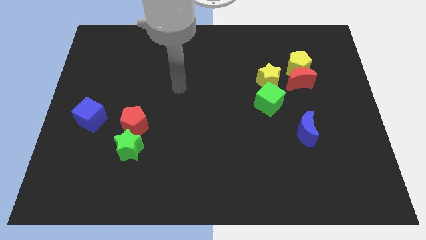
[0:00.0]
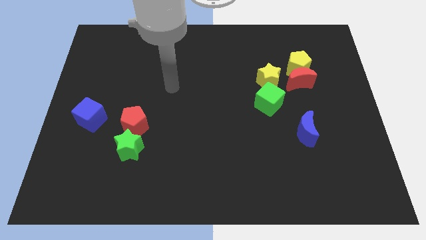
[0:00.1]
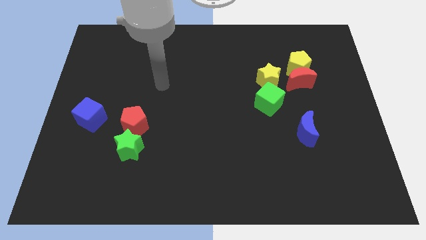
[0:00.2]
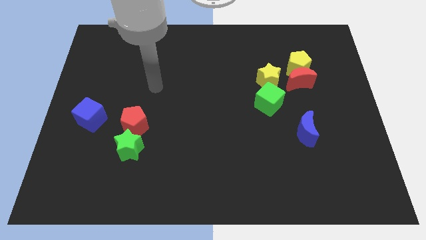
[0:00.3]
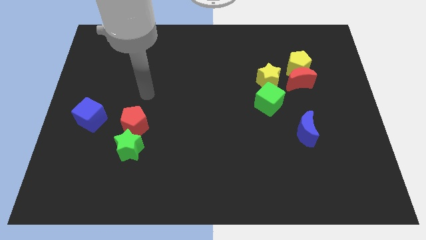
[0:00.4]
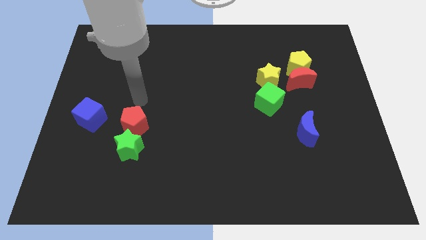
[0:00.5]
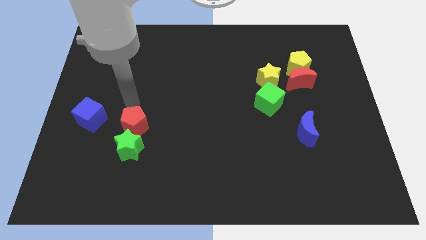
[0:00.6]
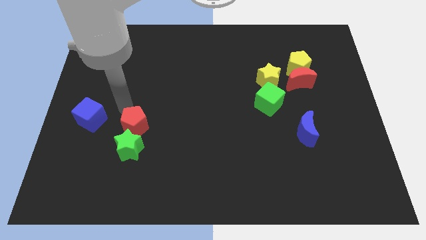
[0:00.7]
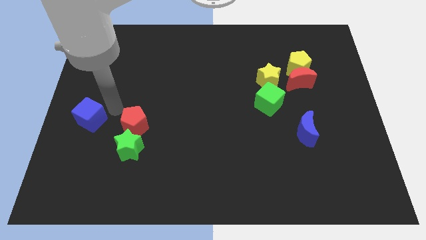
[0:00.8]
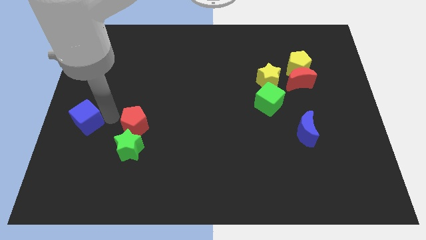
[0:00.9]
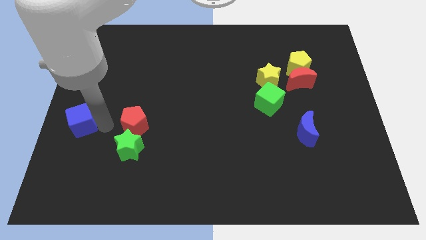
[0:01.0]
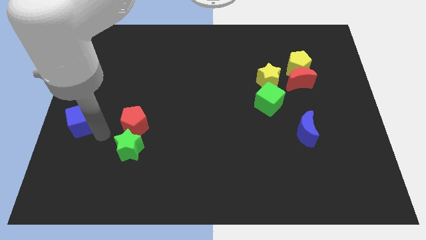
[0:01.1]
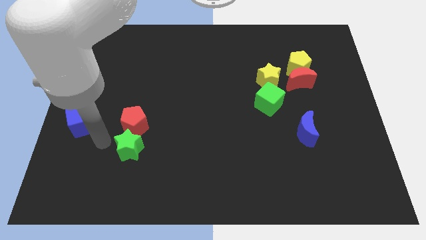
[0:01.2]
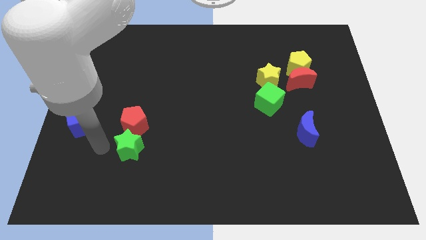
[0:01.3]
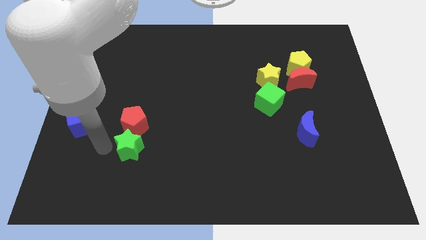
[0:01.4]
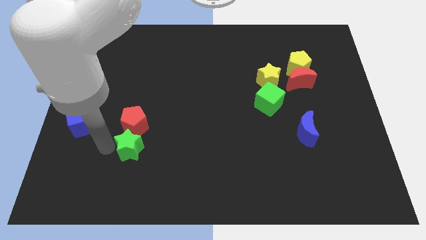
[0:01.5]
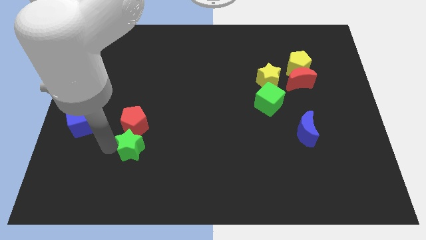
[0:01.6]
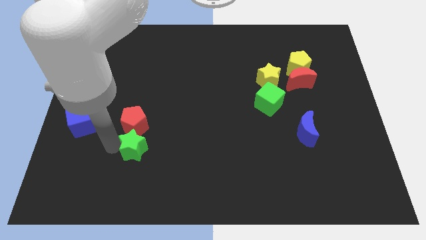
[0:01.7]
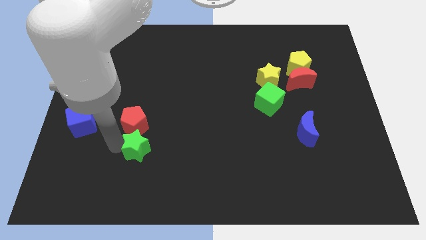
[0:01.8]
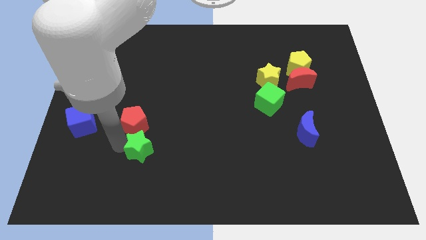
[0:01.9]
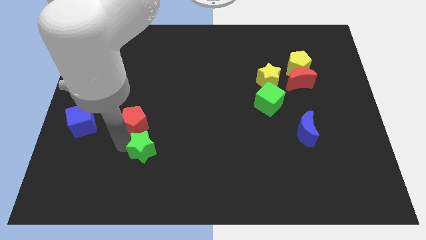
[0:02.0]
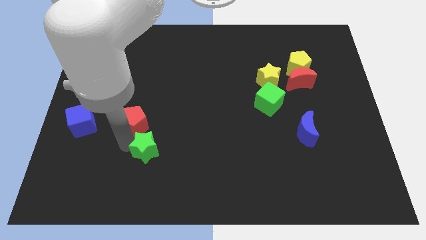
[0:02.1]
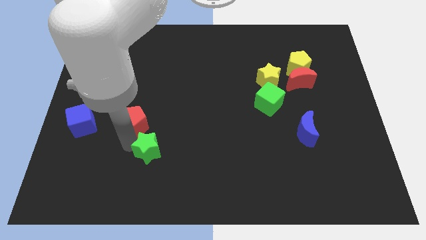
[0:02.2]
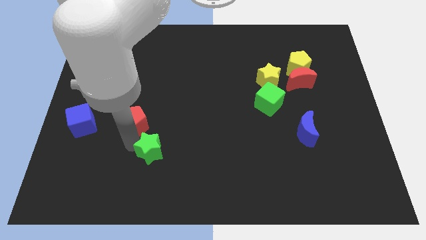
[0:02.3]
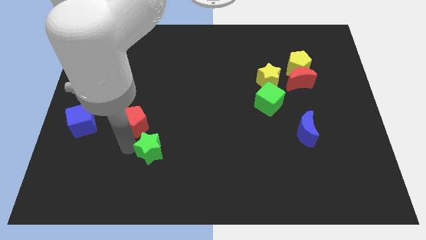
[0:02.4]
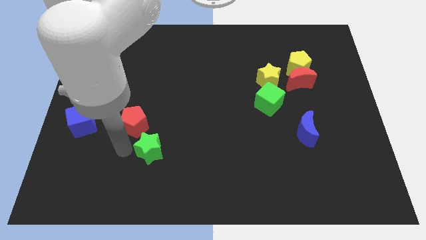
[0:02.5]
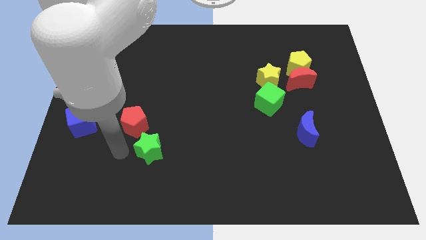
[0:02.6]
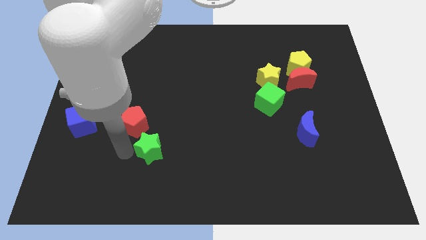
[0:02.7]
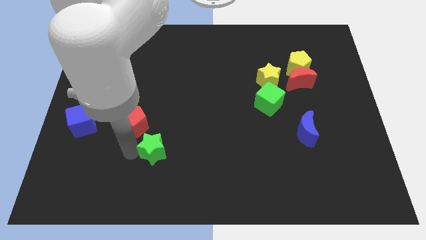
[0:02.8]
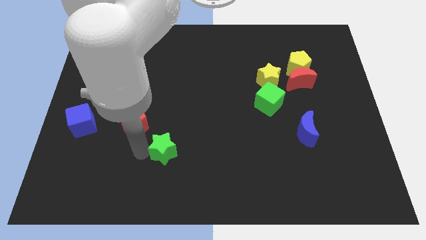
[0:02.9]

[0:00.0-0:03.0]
move the green star a little bit to the right

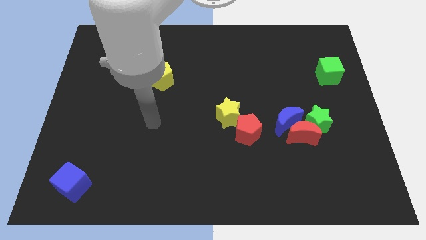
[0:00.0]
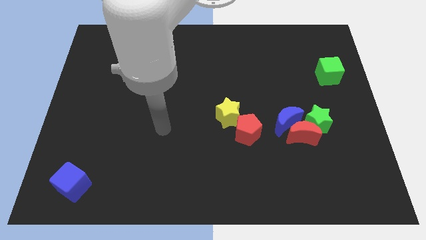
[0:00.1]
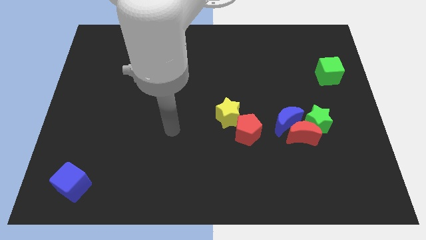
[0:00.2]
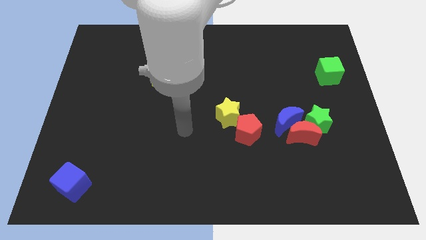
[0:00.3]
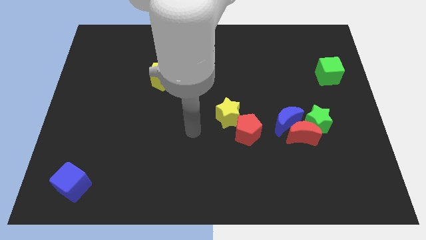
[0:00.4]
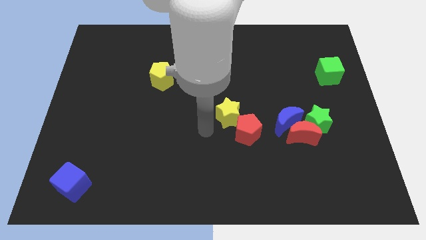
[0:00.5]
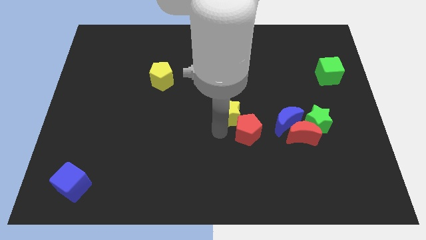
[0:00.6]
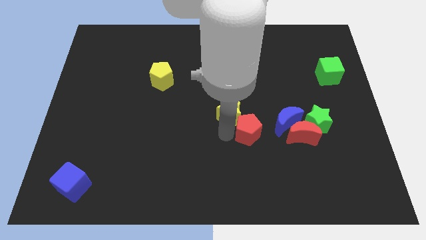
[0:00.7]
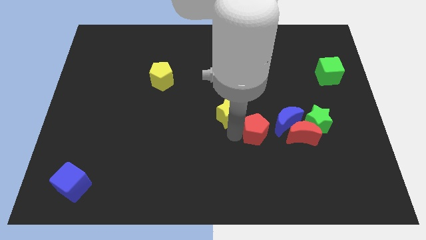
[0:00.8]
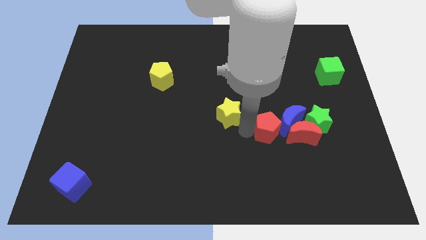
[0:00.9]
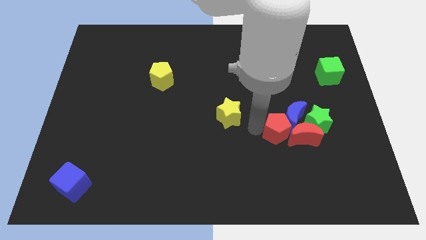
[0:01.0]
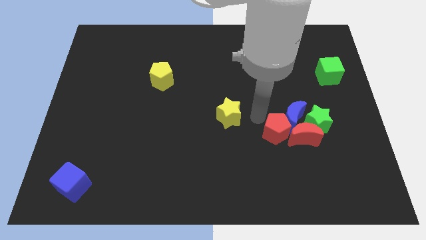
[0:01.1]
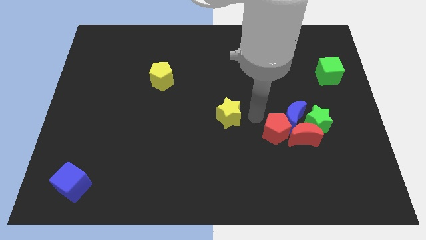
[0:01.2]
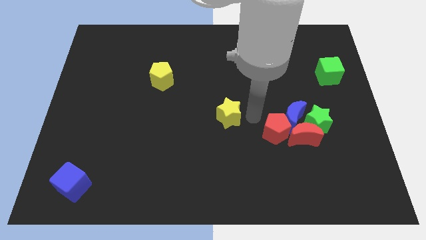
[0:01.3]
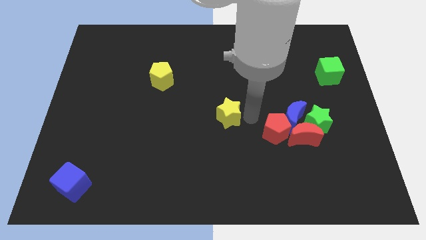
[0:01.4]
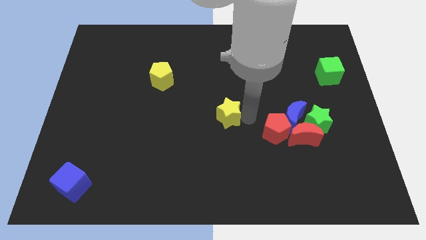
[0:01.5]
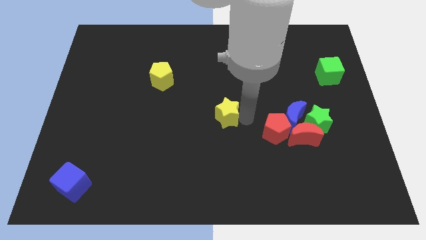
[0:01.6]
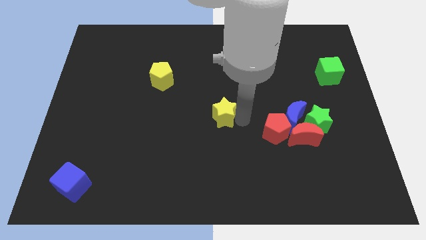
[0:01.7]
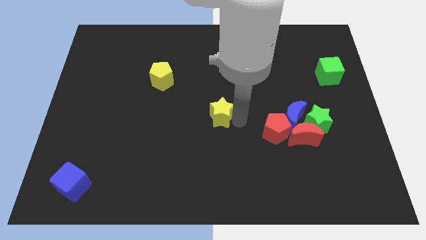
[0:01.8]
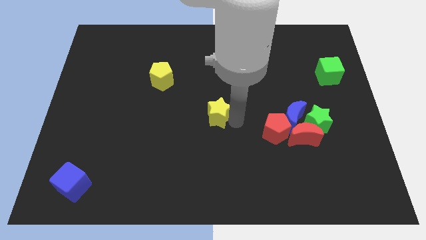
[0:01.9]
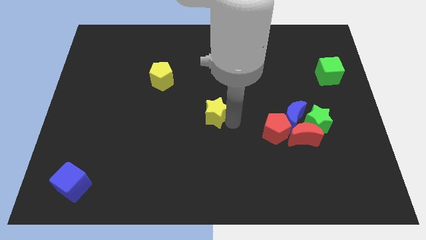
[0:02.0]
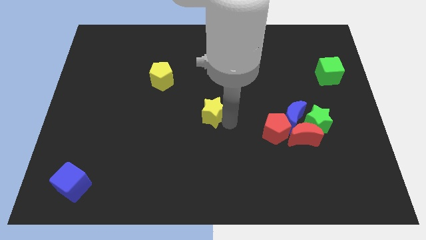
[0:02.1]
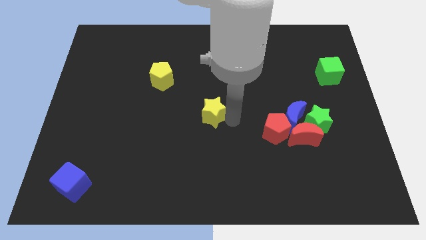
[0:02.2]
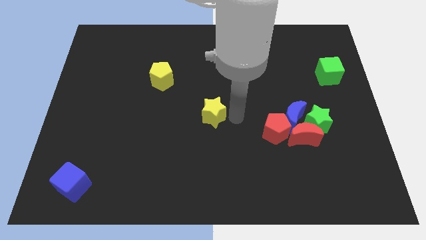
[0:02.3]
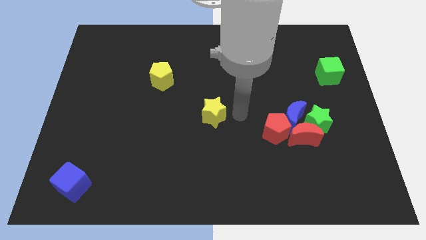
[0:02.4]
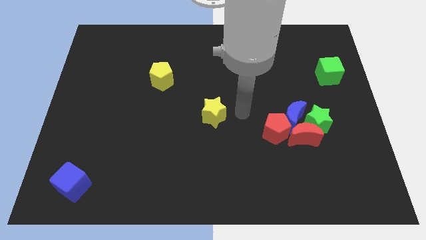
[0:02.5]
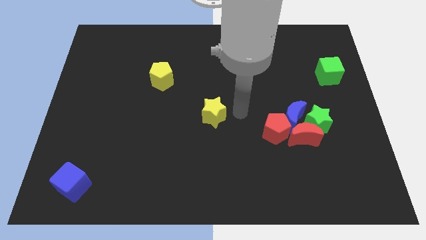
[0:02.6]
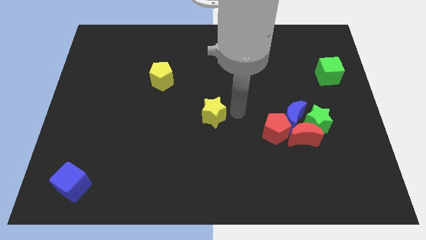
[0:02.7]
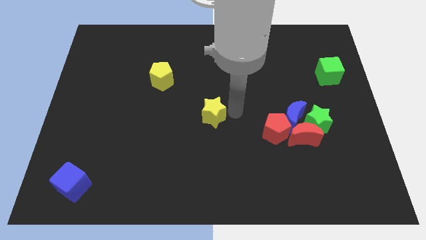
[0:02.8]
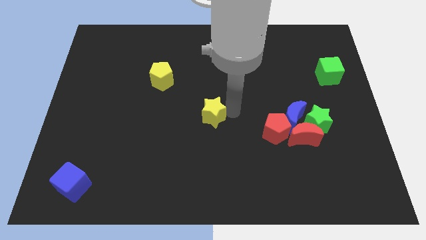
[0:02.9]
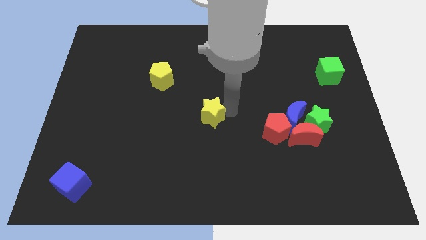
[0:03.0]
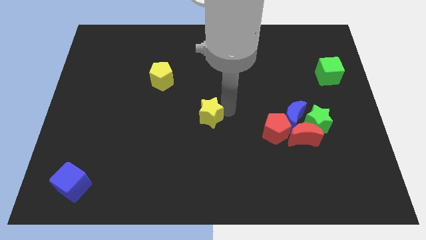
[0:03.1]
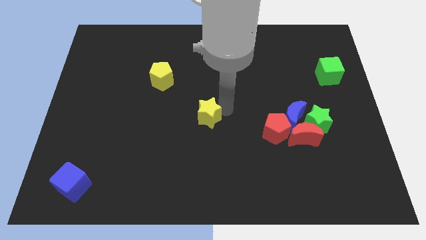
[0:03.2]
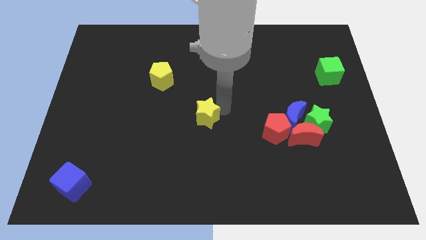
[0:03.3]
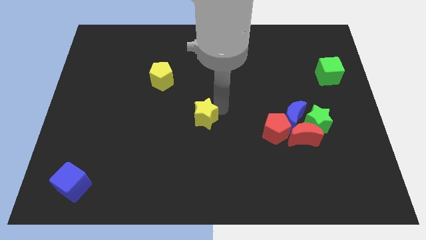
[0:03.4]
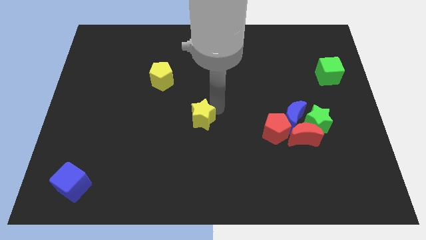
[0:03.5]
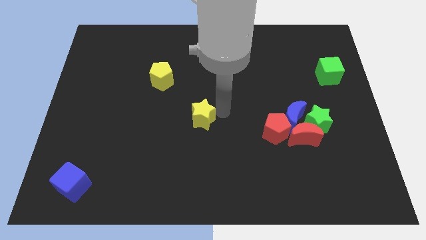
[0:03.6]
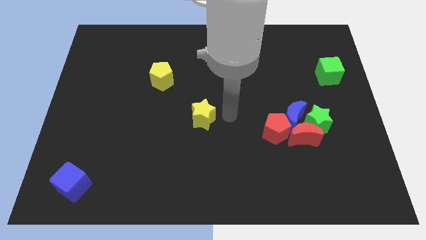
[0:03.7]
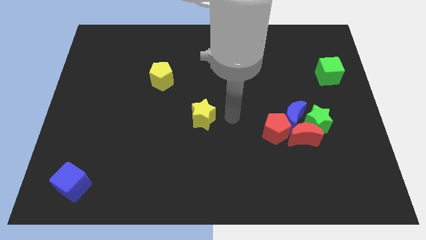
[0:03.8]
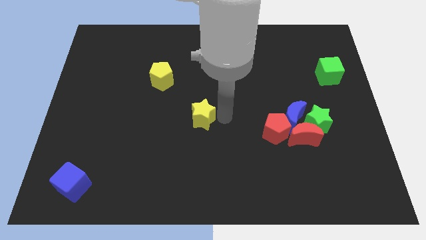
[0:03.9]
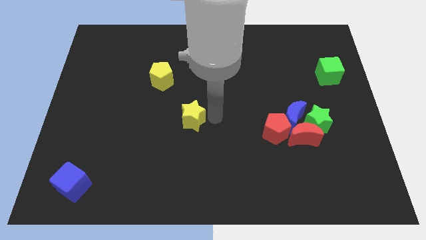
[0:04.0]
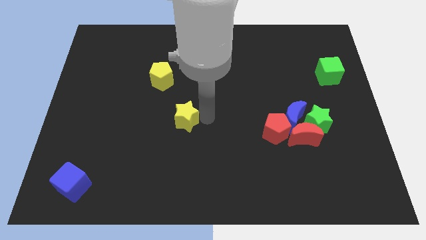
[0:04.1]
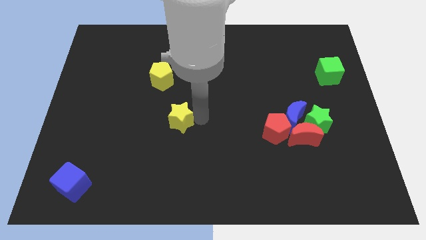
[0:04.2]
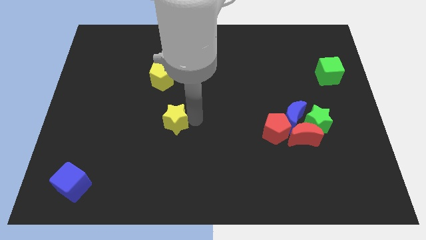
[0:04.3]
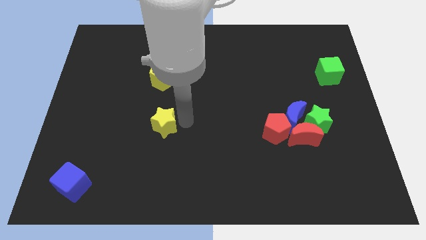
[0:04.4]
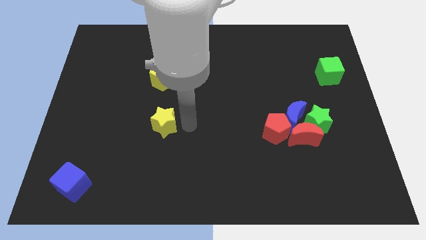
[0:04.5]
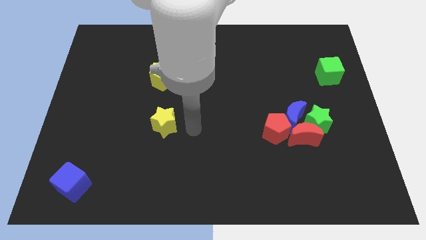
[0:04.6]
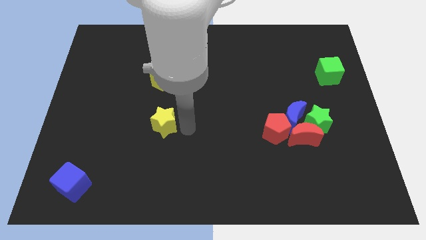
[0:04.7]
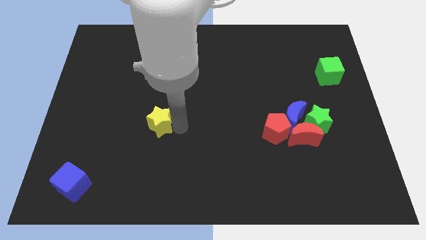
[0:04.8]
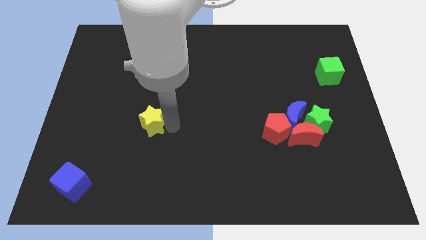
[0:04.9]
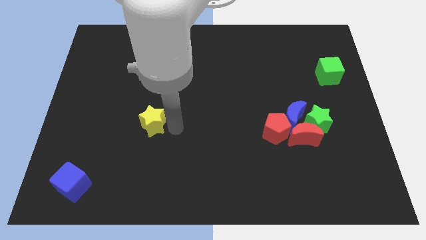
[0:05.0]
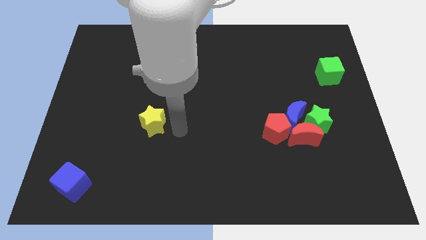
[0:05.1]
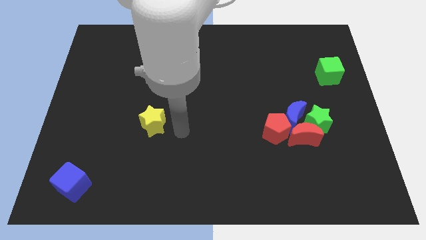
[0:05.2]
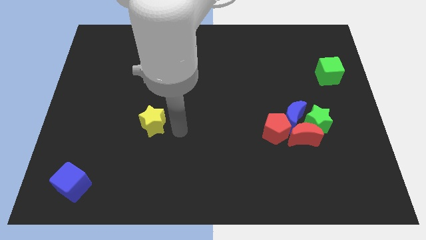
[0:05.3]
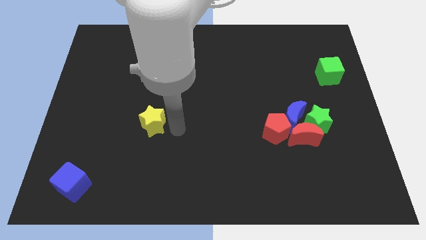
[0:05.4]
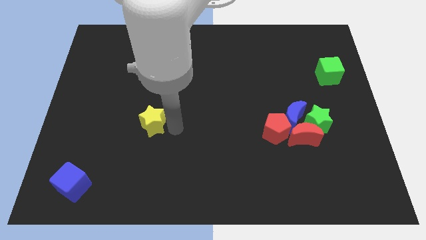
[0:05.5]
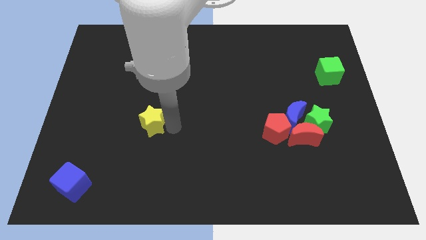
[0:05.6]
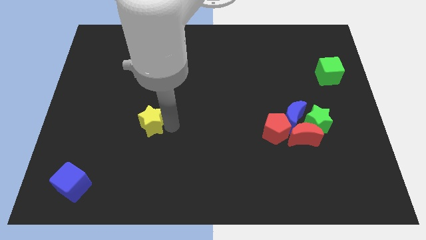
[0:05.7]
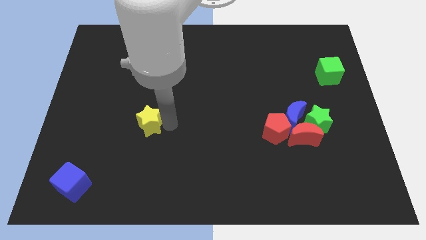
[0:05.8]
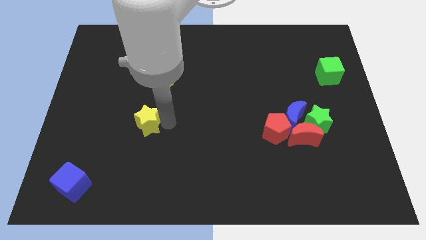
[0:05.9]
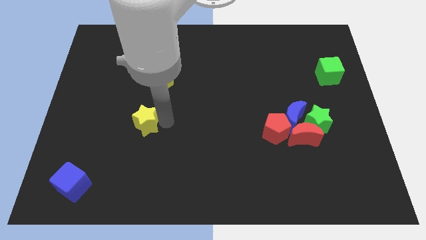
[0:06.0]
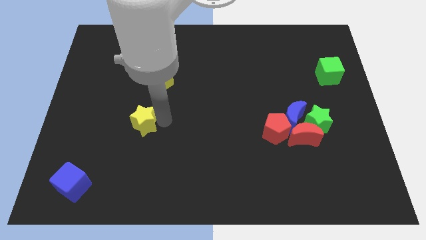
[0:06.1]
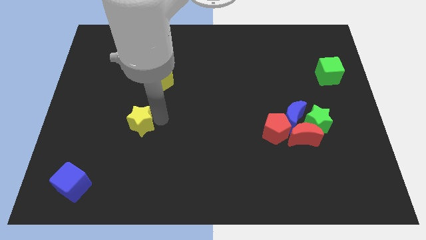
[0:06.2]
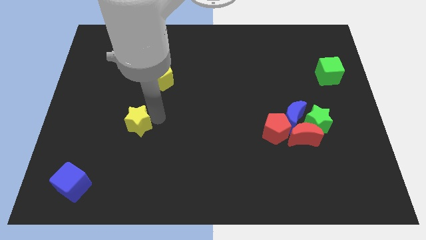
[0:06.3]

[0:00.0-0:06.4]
move the yellow star to the left
